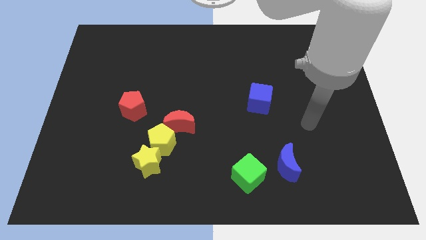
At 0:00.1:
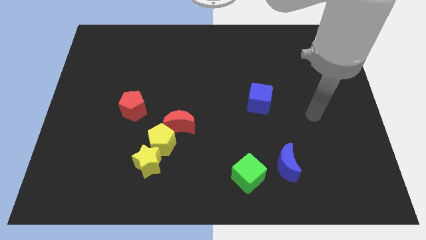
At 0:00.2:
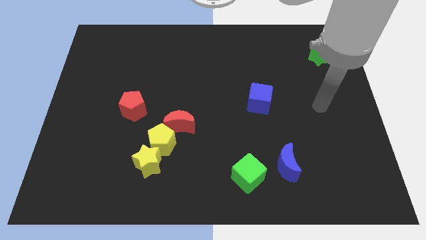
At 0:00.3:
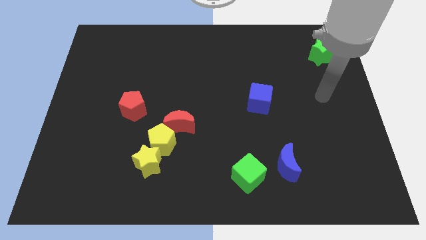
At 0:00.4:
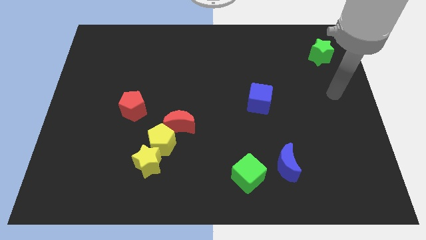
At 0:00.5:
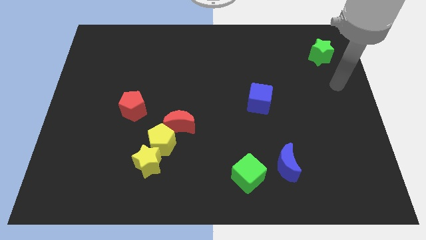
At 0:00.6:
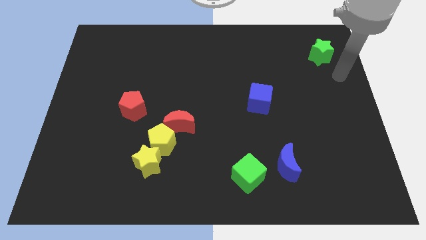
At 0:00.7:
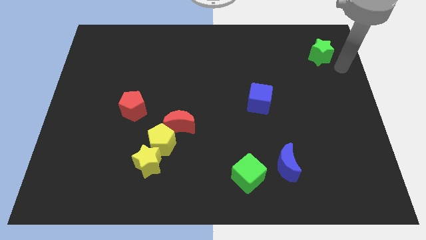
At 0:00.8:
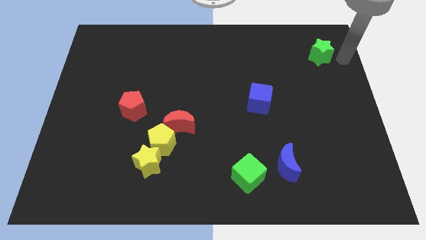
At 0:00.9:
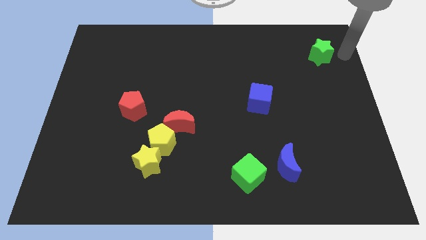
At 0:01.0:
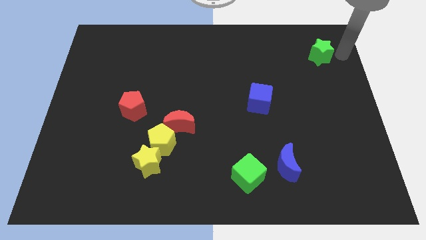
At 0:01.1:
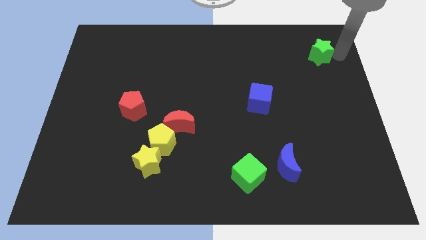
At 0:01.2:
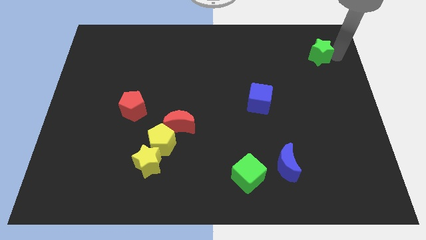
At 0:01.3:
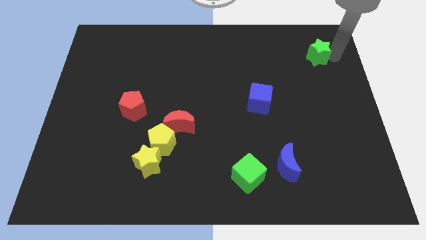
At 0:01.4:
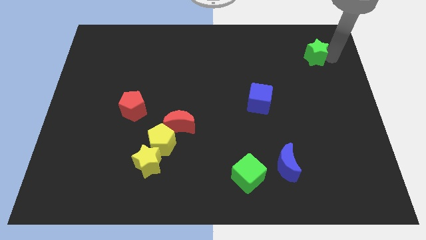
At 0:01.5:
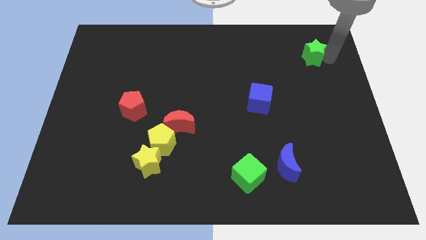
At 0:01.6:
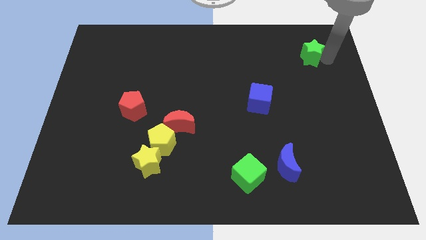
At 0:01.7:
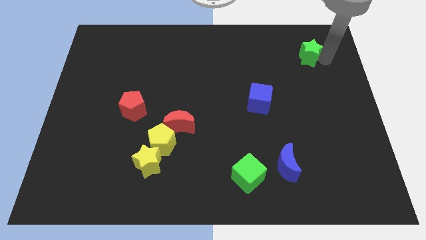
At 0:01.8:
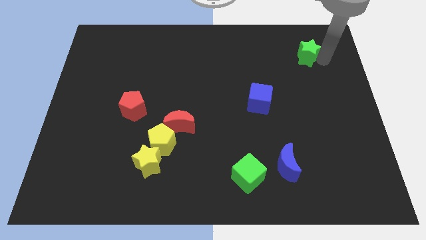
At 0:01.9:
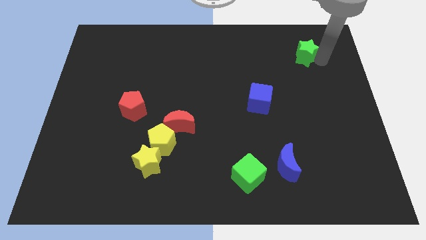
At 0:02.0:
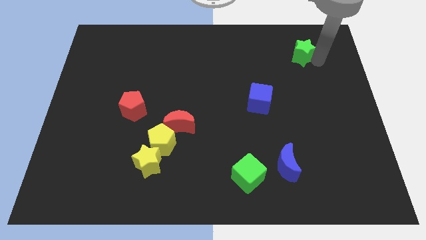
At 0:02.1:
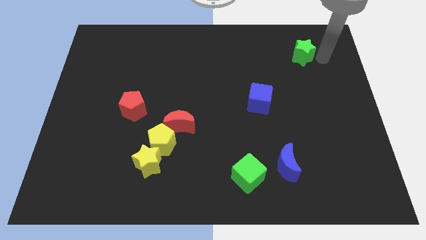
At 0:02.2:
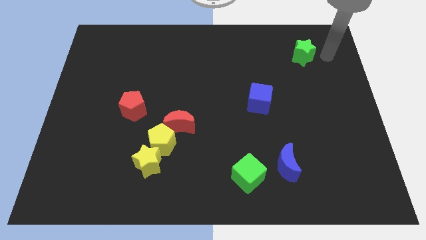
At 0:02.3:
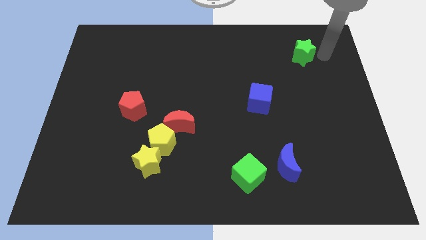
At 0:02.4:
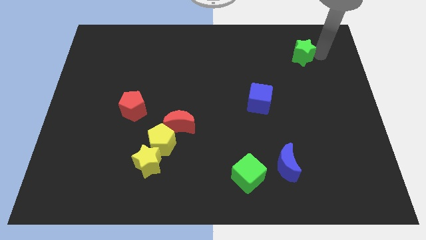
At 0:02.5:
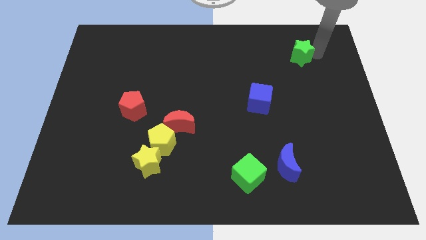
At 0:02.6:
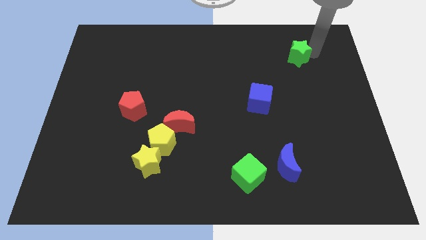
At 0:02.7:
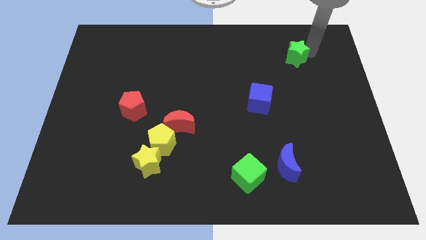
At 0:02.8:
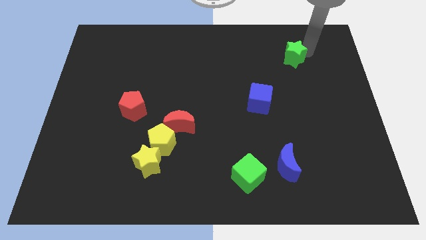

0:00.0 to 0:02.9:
push the green star left slightly

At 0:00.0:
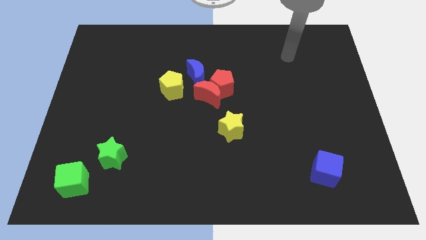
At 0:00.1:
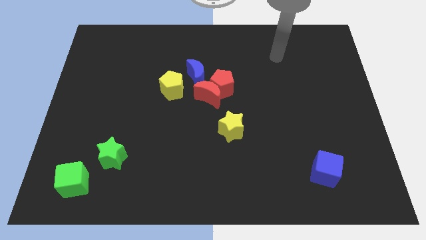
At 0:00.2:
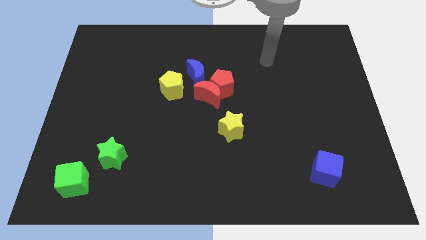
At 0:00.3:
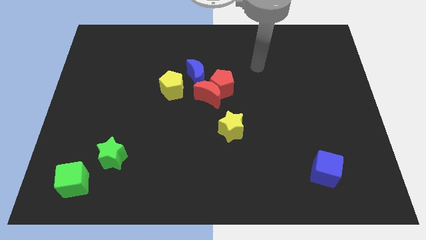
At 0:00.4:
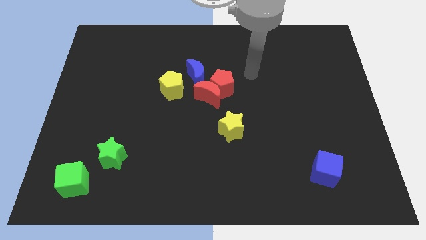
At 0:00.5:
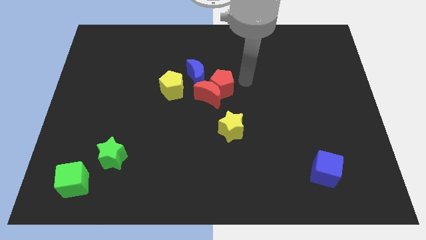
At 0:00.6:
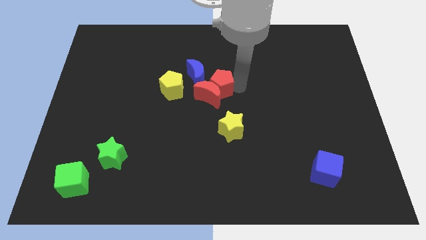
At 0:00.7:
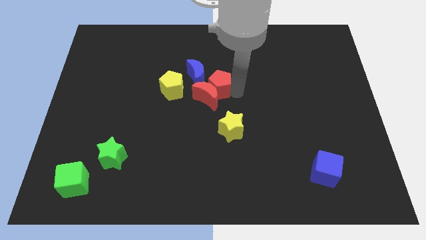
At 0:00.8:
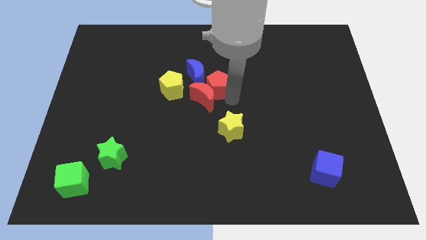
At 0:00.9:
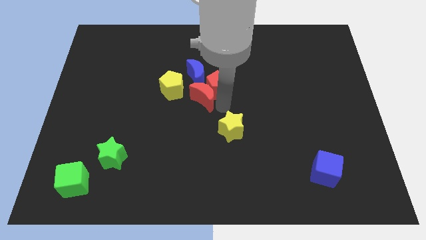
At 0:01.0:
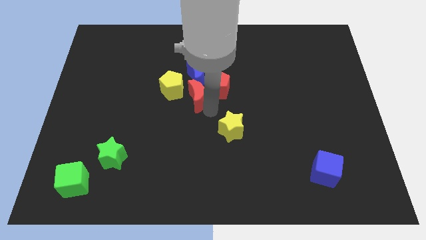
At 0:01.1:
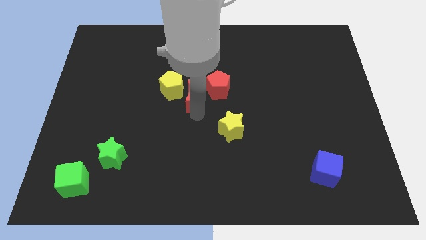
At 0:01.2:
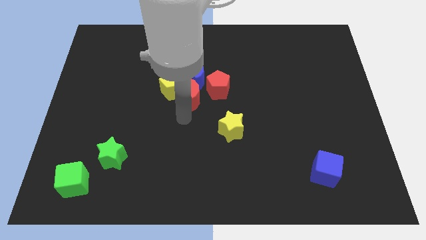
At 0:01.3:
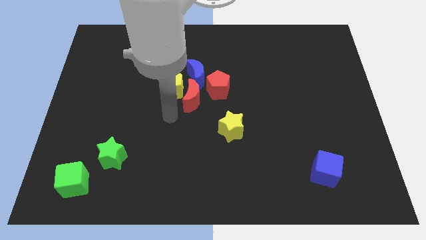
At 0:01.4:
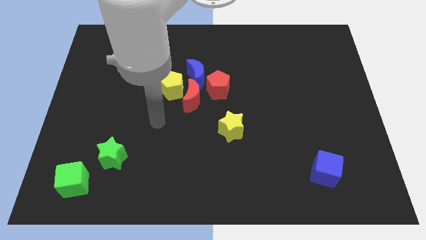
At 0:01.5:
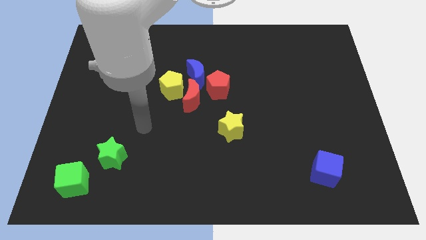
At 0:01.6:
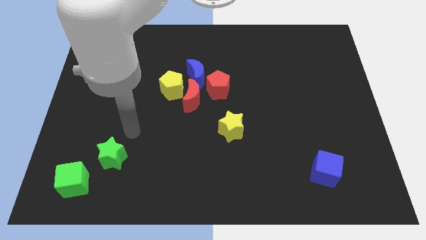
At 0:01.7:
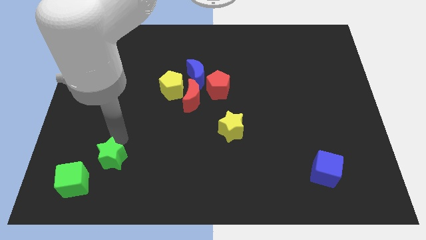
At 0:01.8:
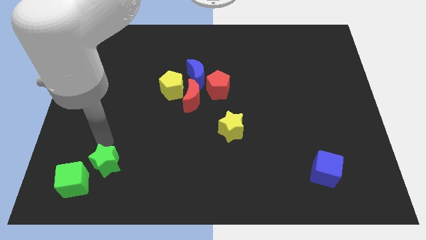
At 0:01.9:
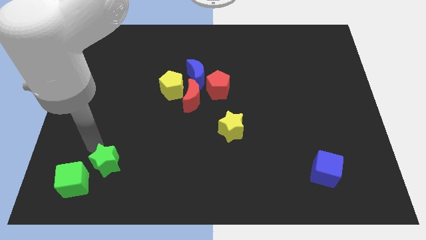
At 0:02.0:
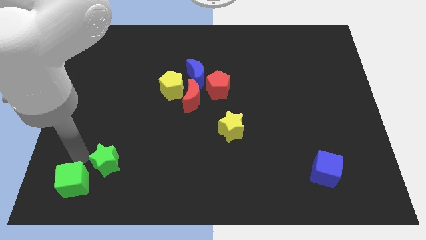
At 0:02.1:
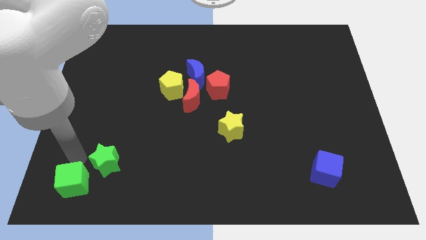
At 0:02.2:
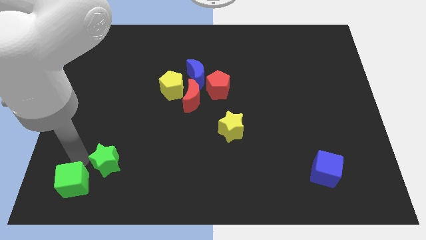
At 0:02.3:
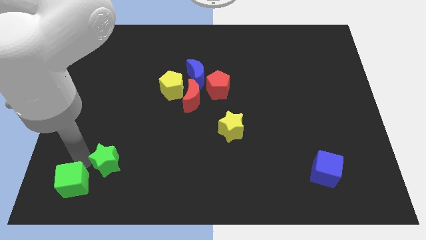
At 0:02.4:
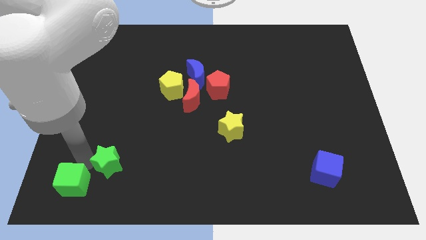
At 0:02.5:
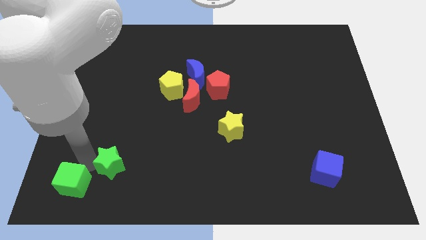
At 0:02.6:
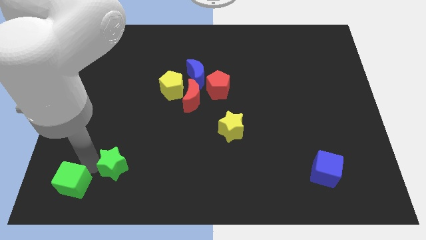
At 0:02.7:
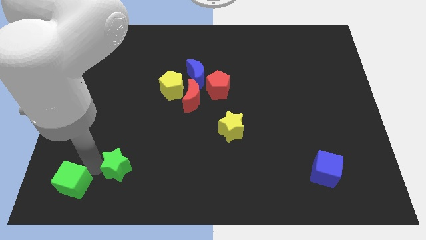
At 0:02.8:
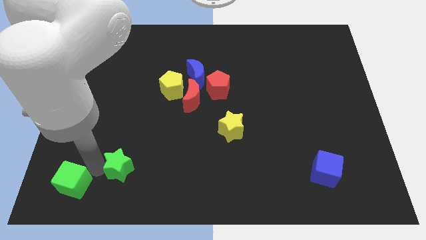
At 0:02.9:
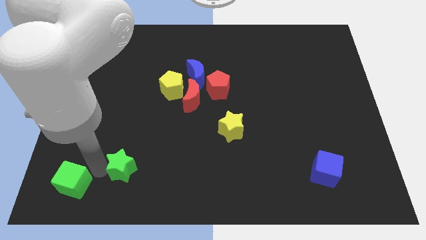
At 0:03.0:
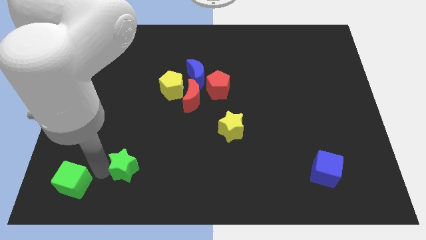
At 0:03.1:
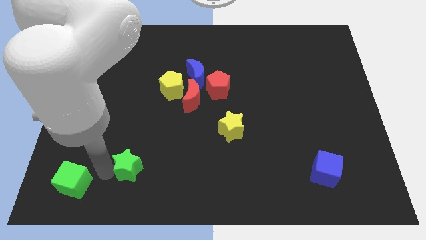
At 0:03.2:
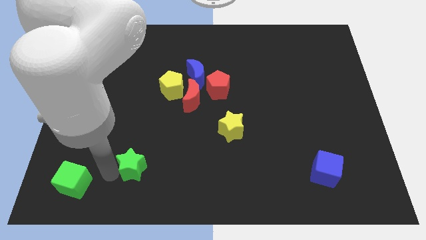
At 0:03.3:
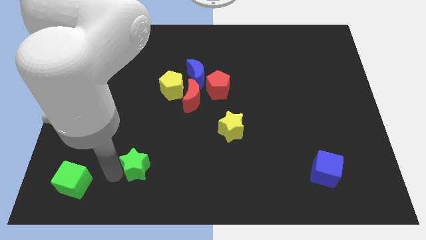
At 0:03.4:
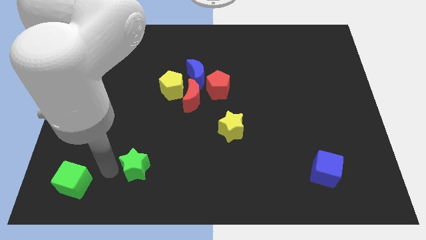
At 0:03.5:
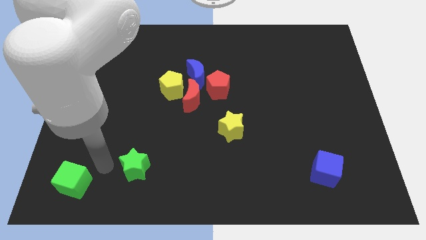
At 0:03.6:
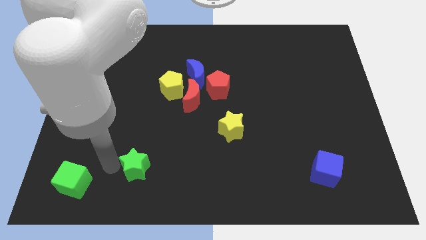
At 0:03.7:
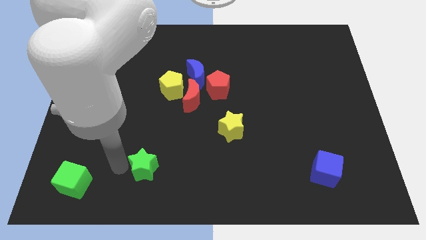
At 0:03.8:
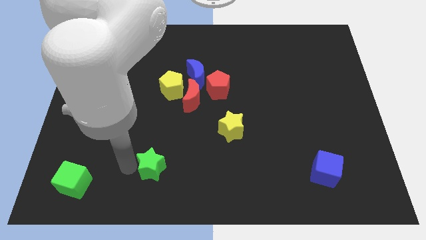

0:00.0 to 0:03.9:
slightly push the green star right

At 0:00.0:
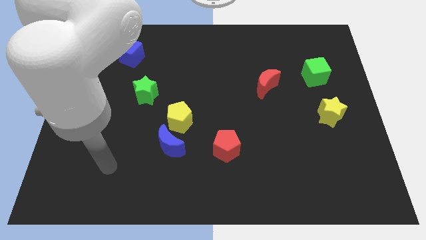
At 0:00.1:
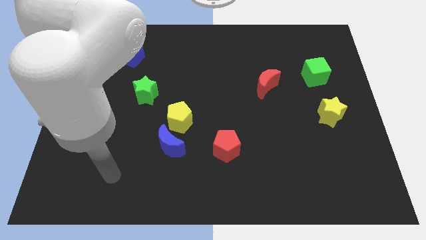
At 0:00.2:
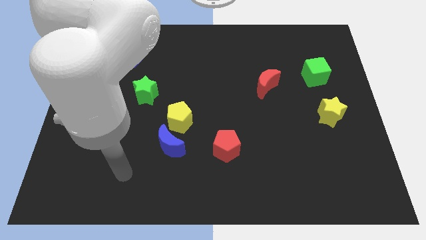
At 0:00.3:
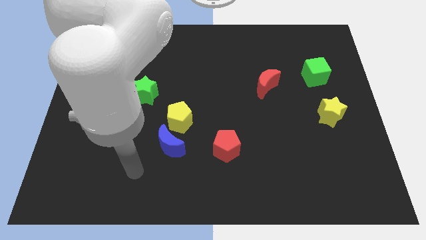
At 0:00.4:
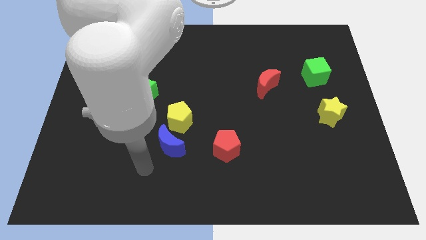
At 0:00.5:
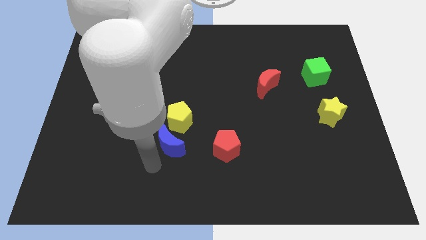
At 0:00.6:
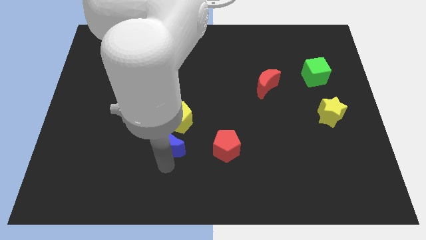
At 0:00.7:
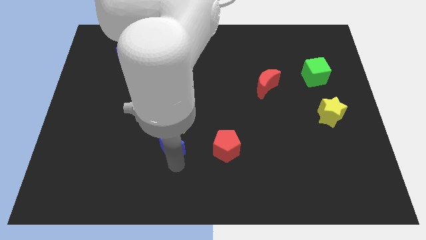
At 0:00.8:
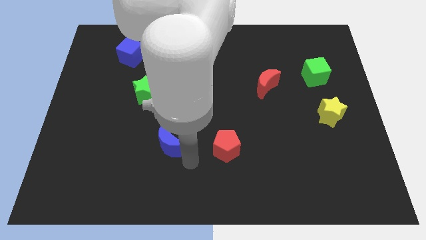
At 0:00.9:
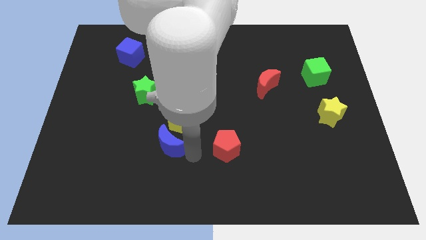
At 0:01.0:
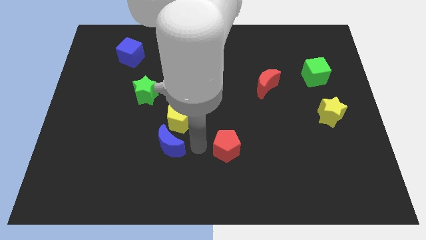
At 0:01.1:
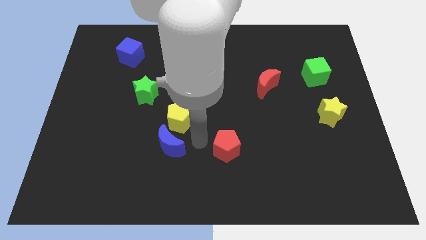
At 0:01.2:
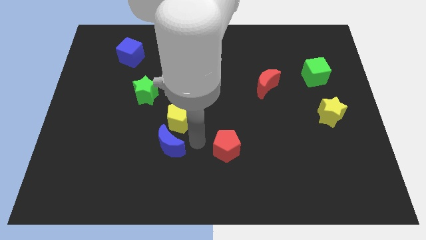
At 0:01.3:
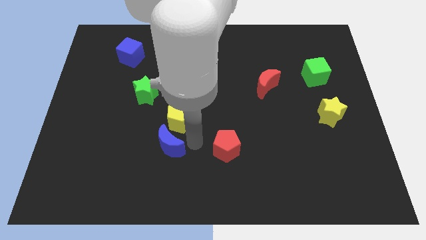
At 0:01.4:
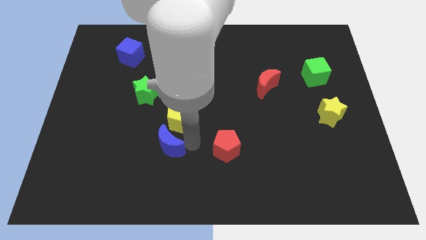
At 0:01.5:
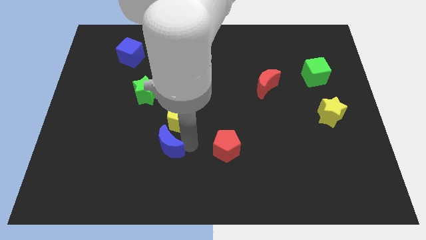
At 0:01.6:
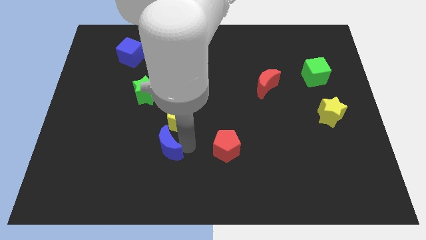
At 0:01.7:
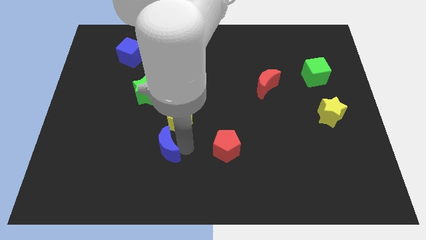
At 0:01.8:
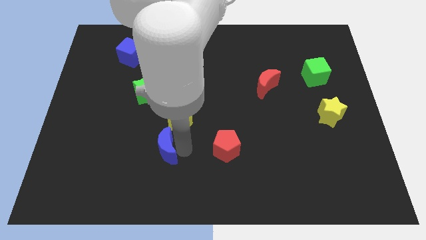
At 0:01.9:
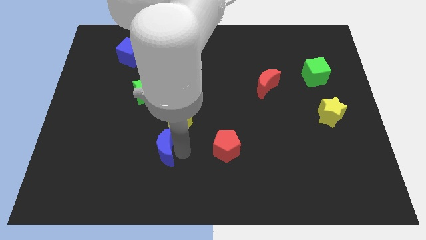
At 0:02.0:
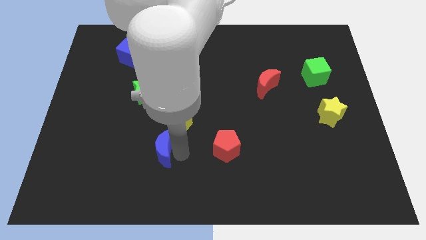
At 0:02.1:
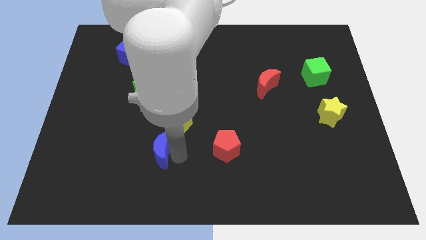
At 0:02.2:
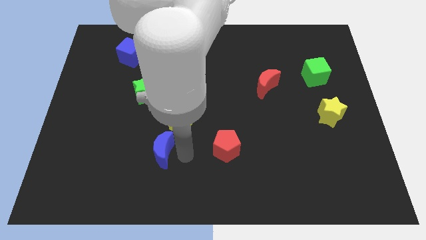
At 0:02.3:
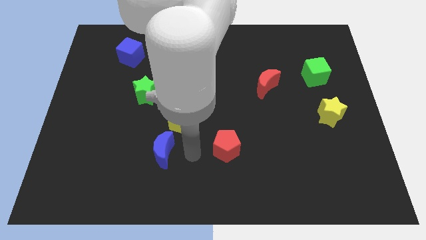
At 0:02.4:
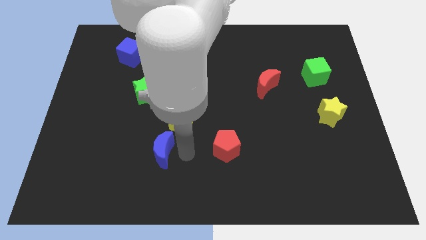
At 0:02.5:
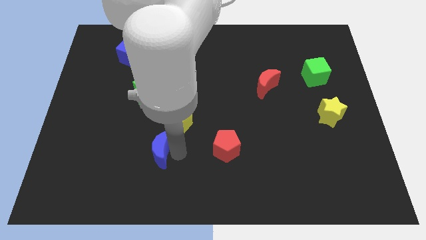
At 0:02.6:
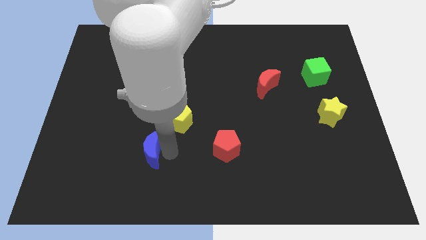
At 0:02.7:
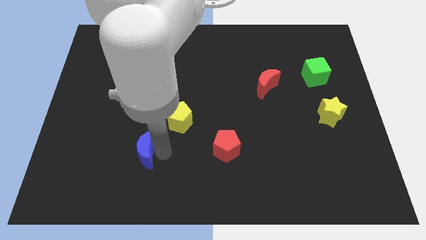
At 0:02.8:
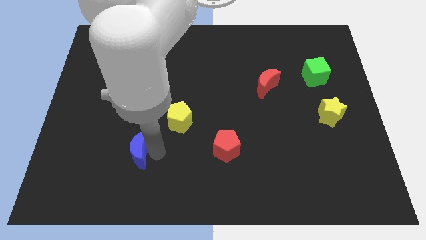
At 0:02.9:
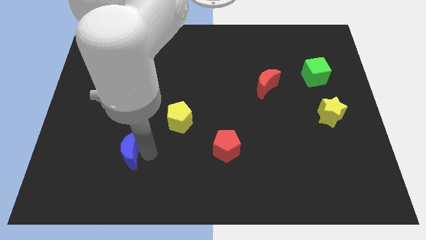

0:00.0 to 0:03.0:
slide the blue moon a bit to the left
